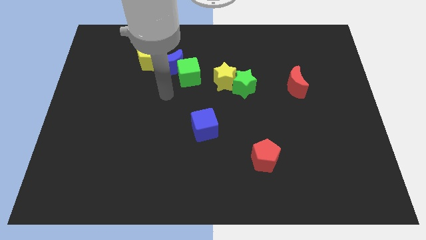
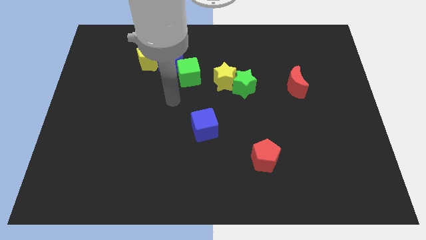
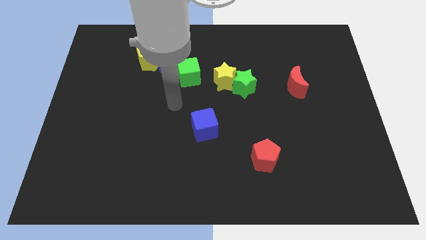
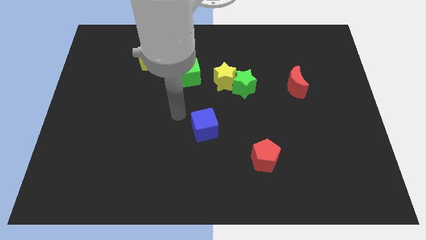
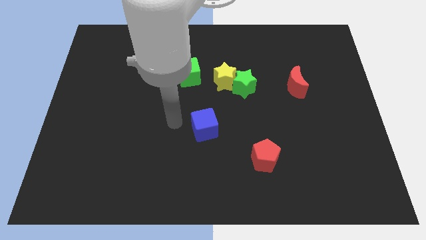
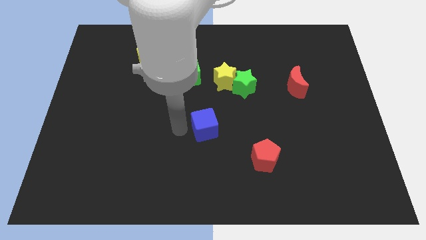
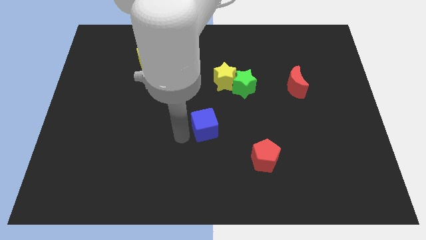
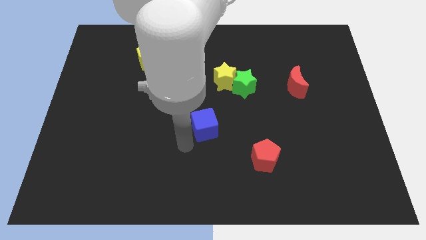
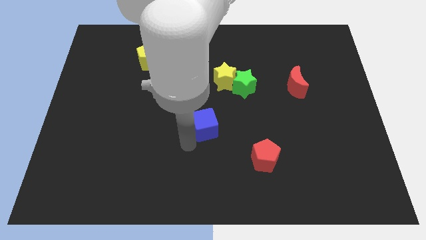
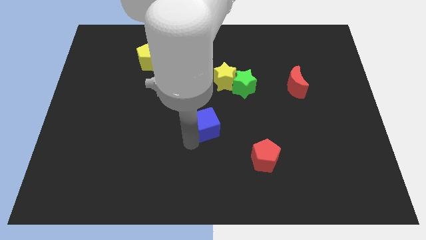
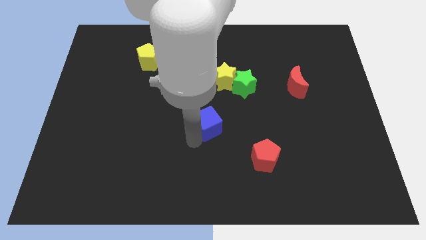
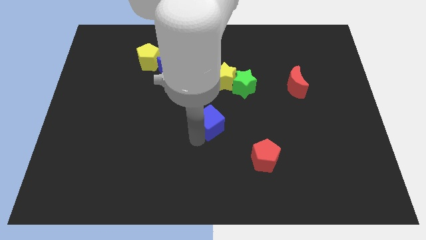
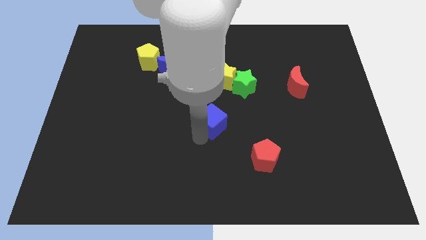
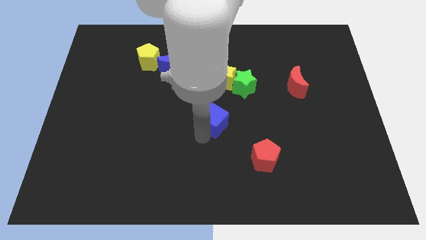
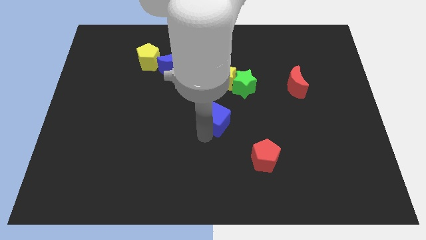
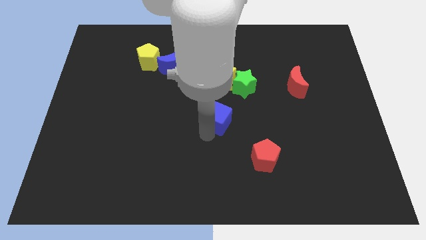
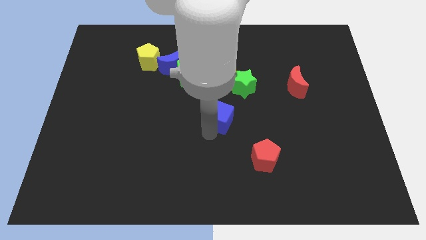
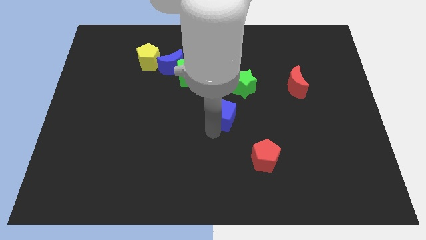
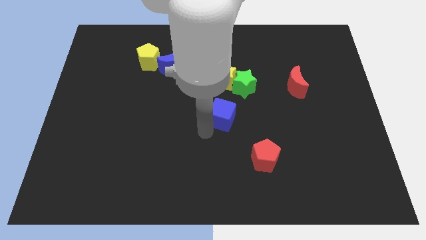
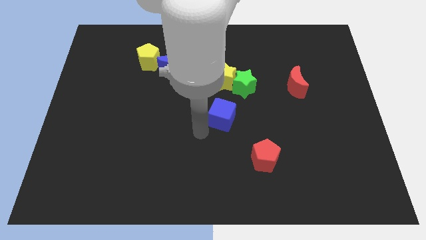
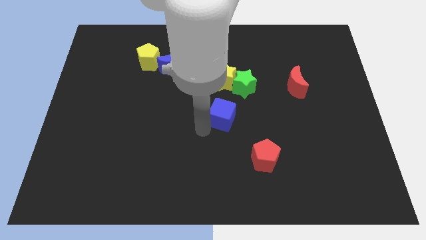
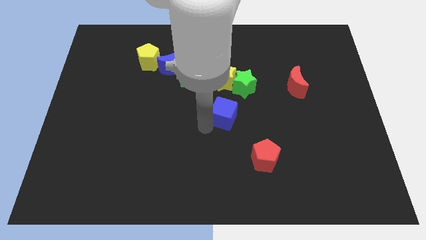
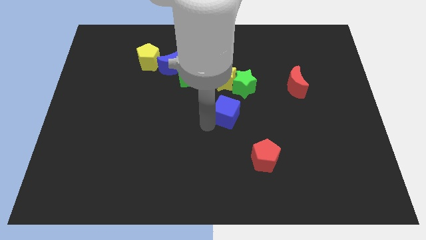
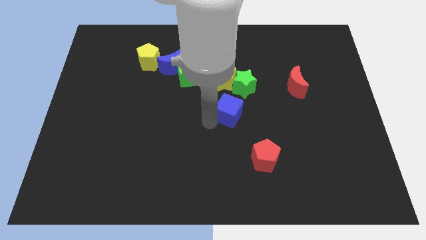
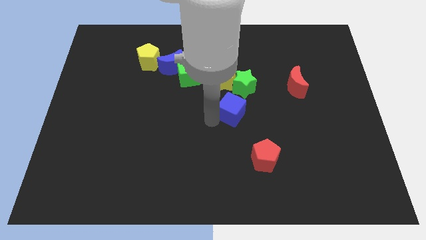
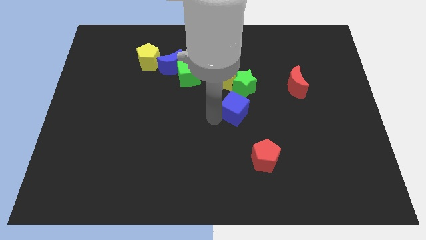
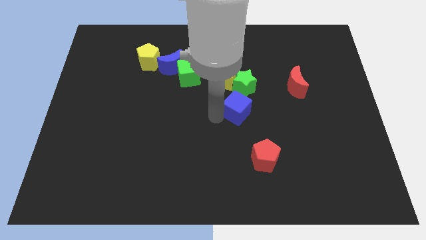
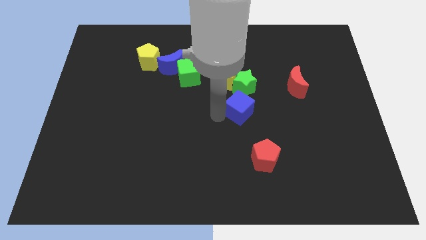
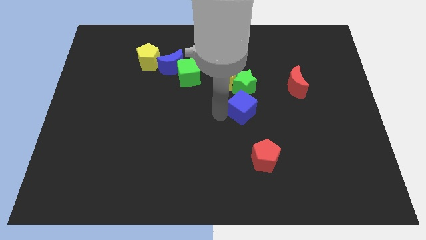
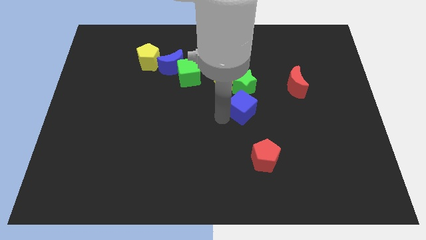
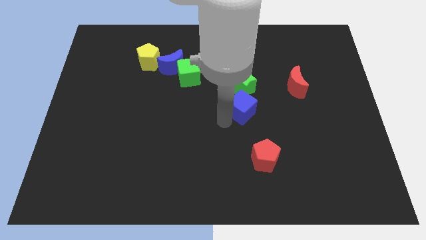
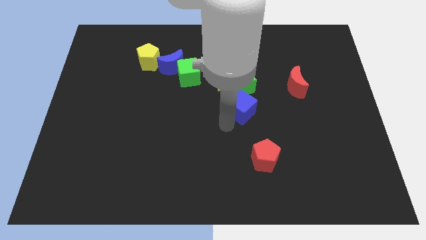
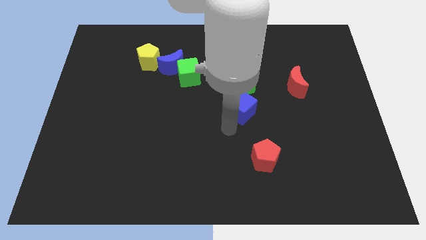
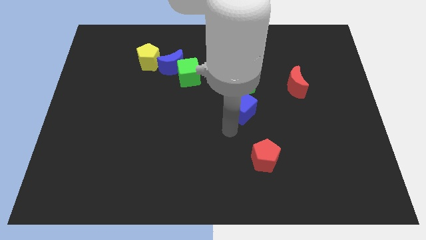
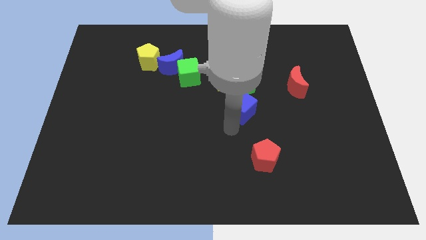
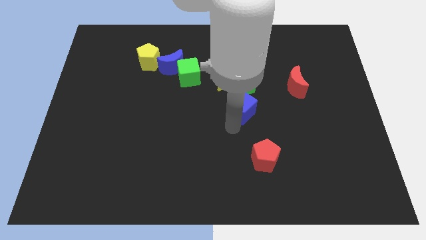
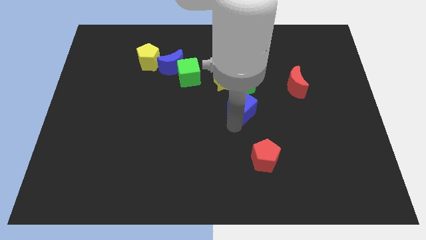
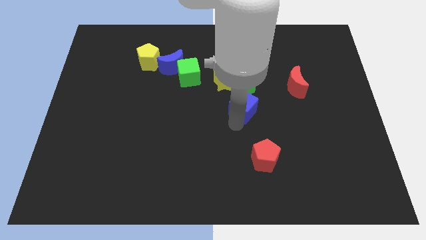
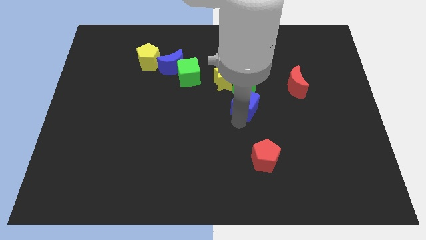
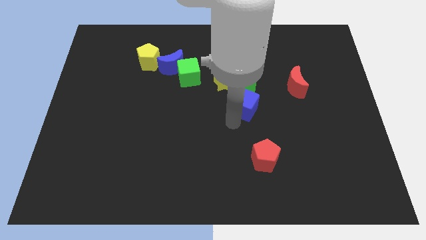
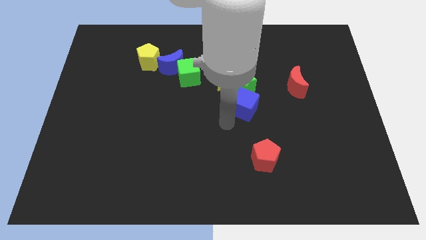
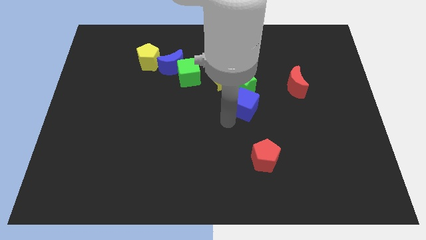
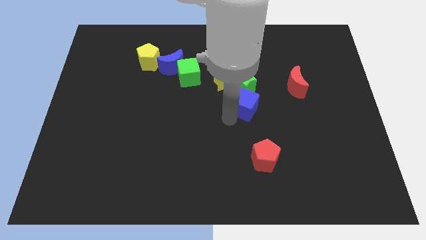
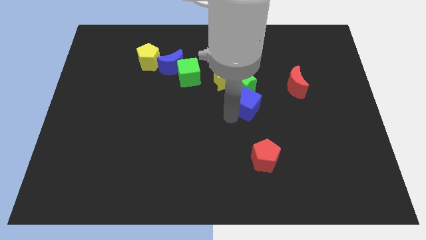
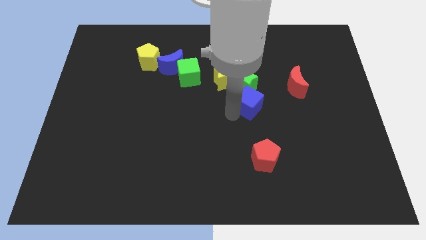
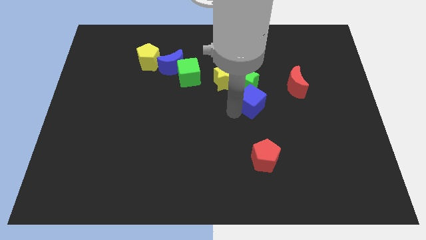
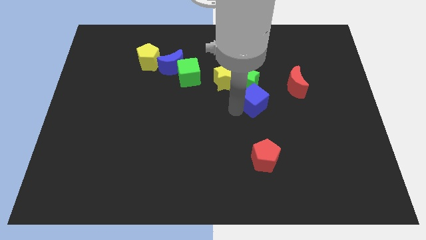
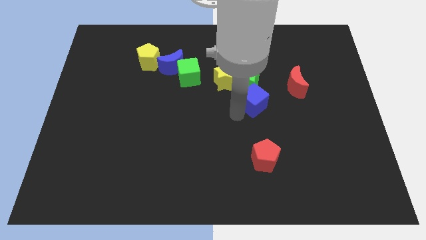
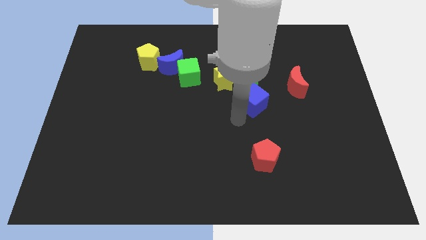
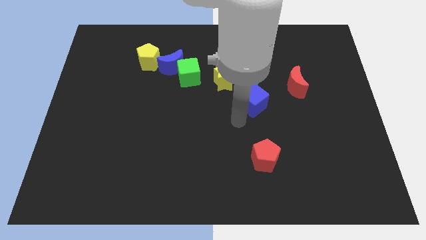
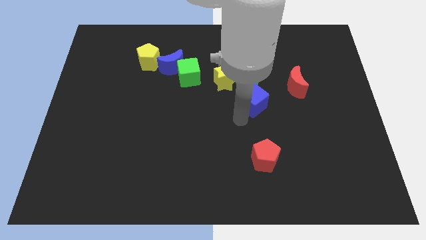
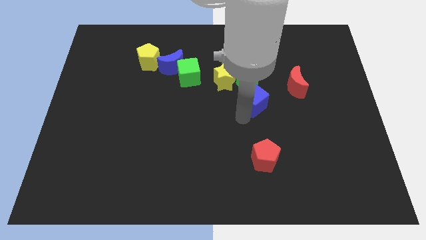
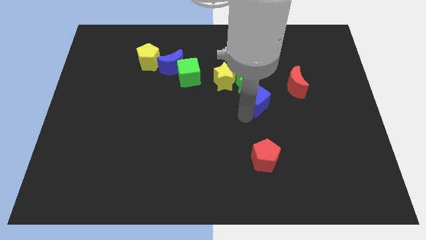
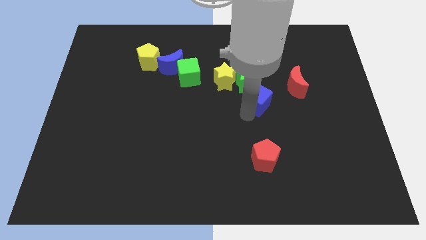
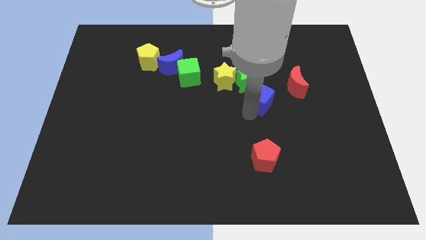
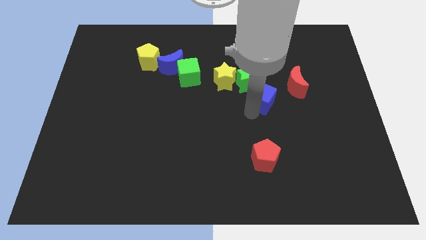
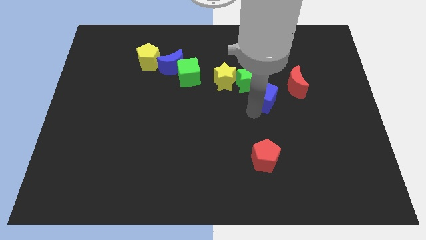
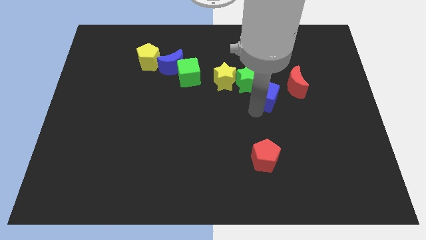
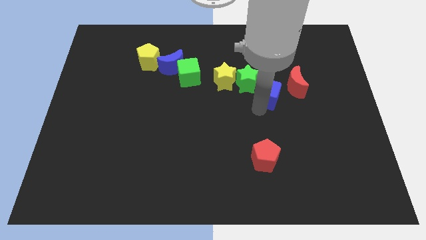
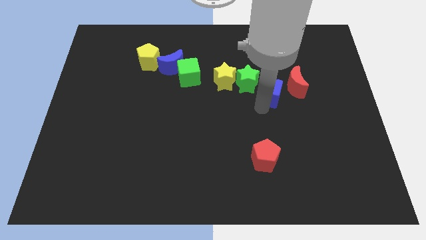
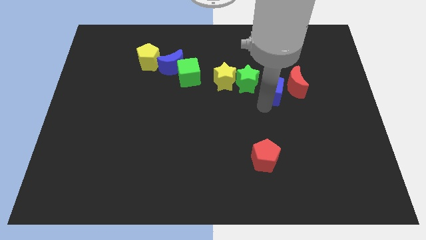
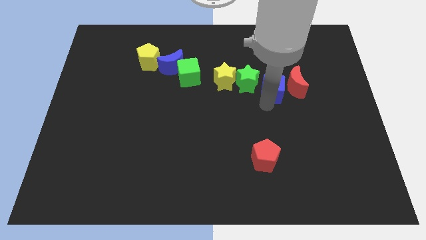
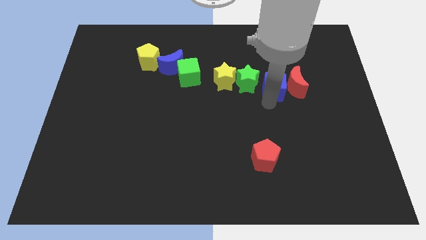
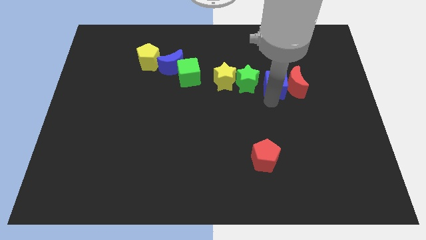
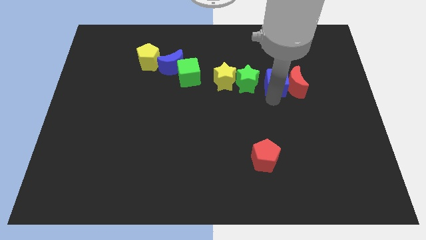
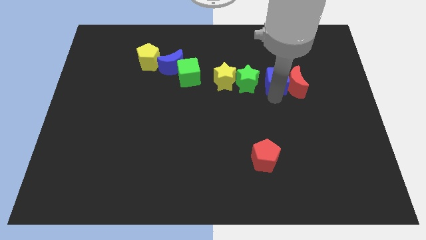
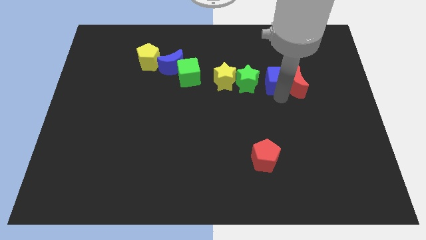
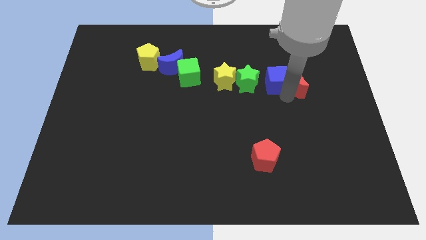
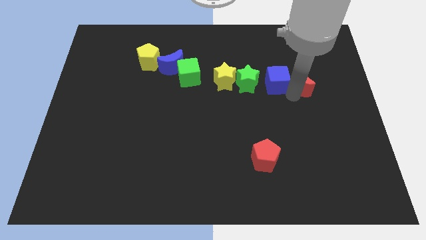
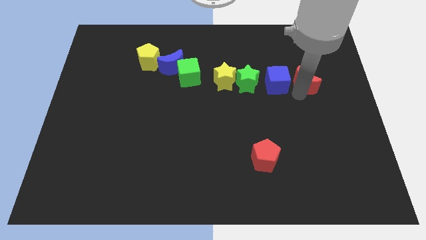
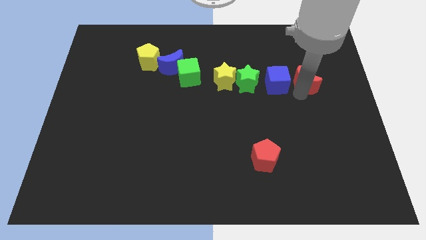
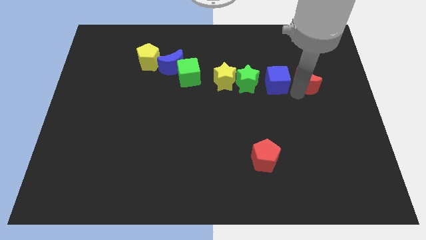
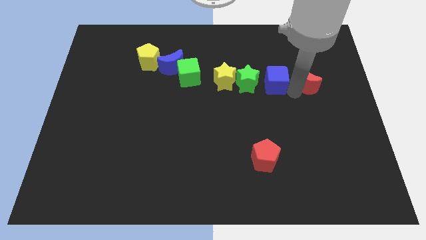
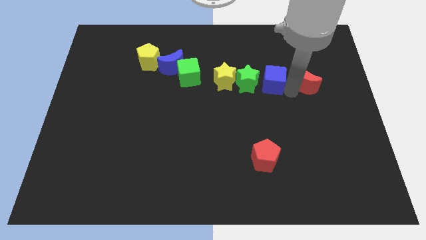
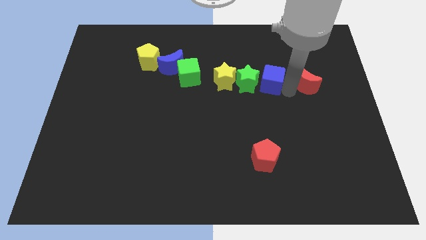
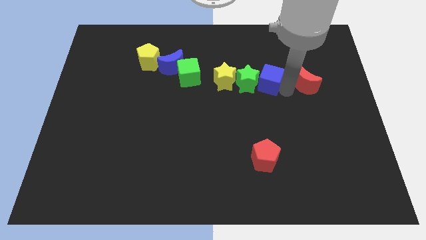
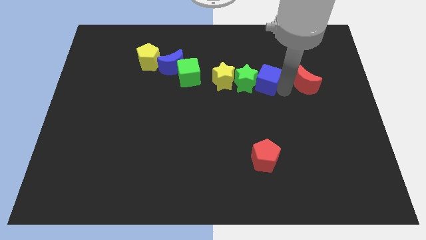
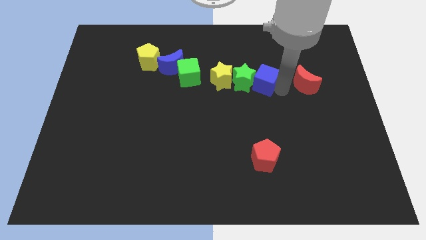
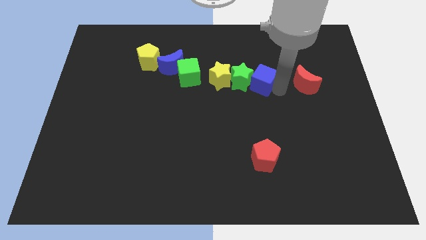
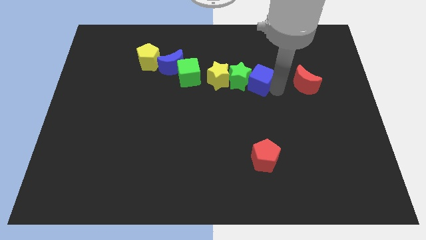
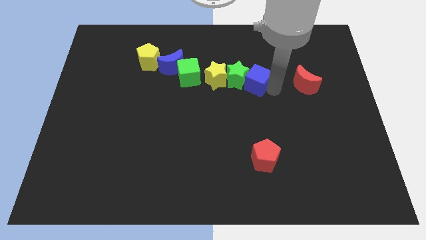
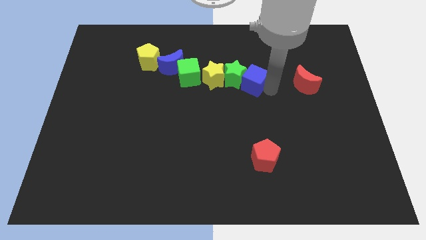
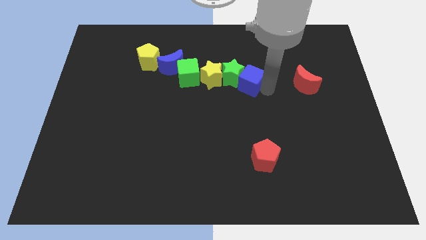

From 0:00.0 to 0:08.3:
move the blue cube upwards a little
